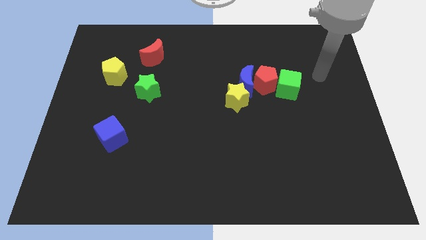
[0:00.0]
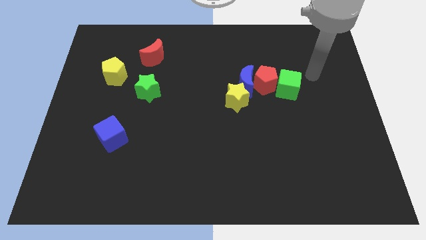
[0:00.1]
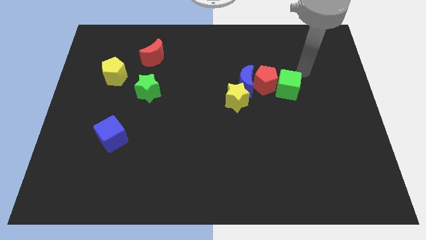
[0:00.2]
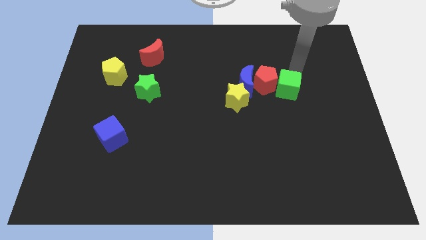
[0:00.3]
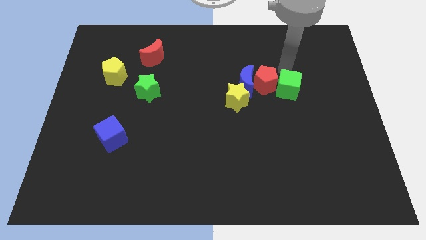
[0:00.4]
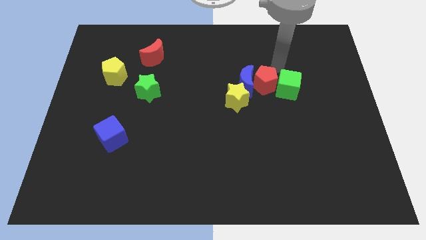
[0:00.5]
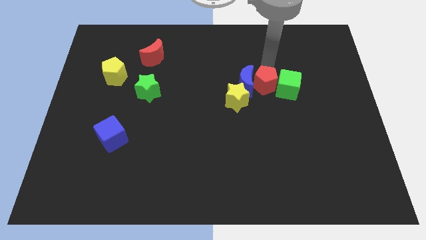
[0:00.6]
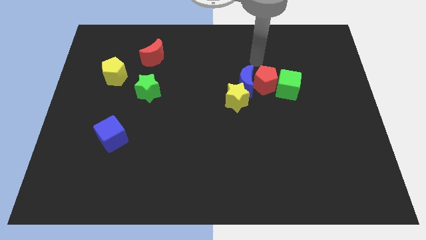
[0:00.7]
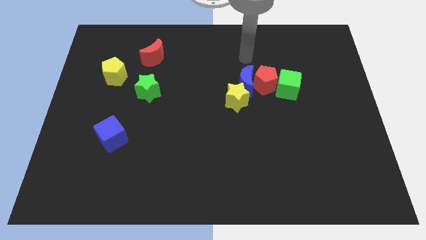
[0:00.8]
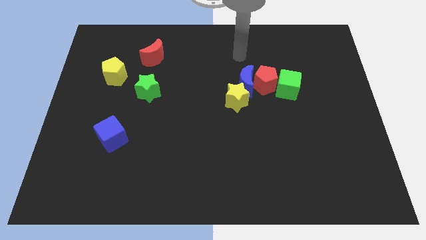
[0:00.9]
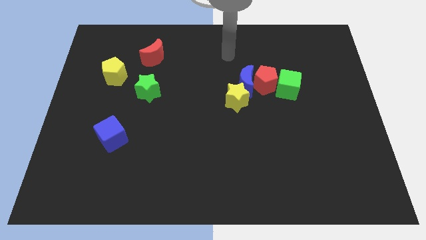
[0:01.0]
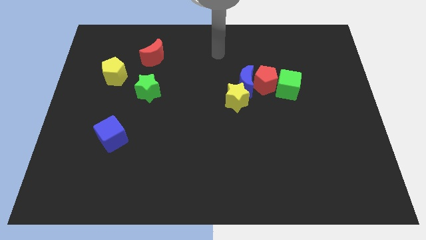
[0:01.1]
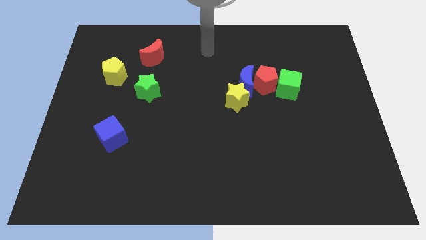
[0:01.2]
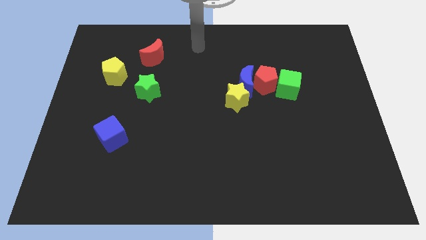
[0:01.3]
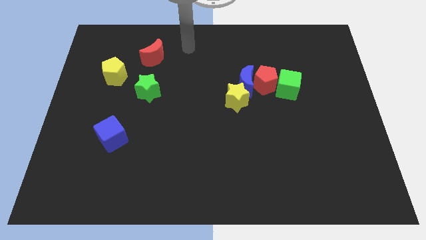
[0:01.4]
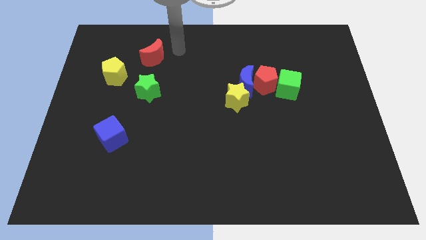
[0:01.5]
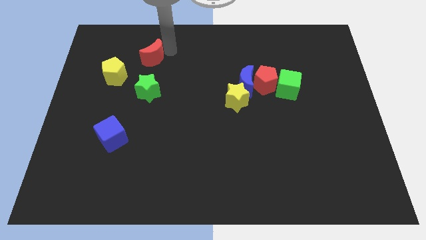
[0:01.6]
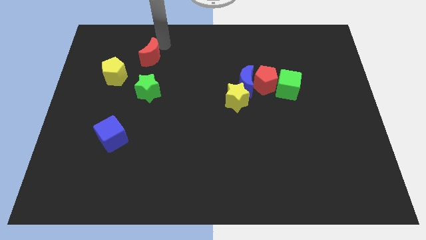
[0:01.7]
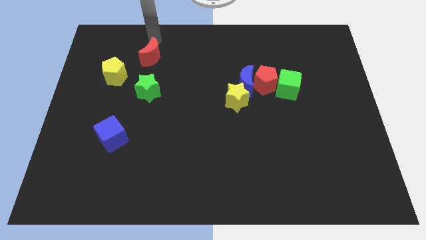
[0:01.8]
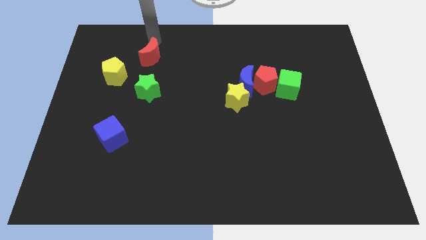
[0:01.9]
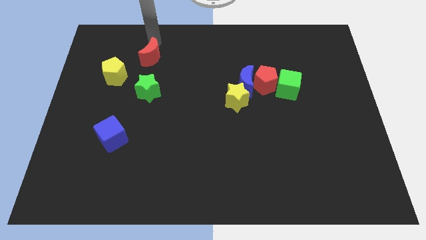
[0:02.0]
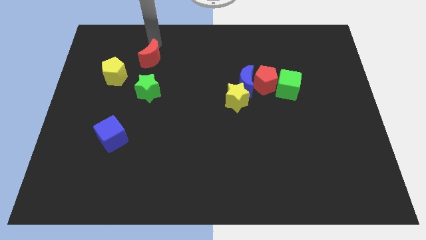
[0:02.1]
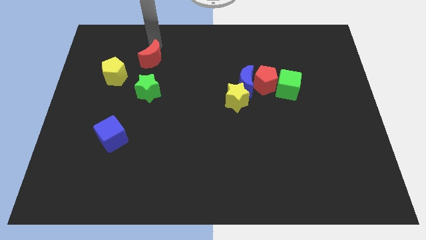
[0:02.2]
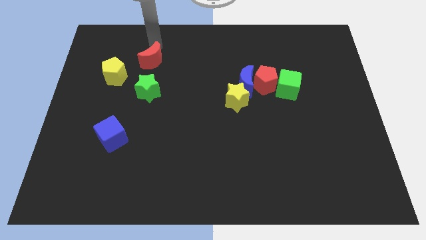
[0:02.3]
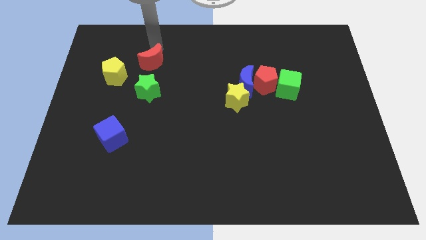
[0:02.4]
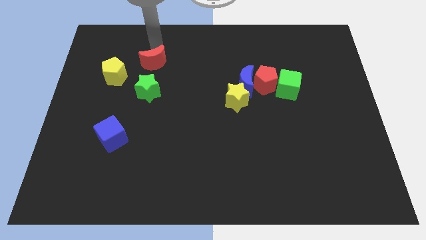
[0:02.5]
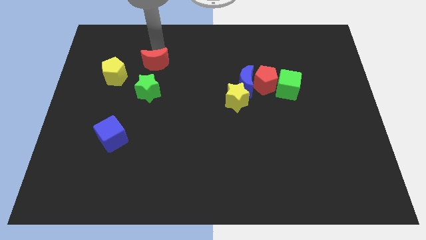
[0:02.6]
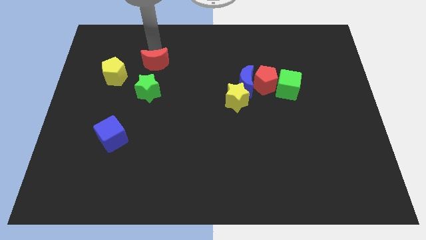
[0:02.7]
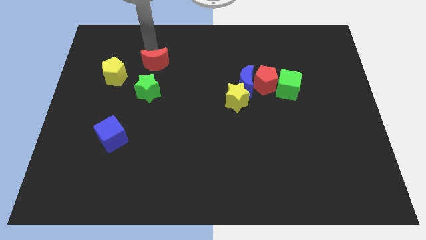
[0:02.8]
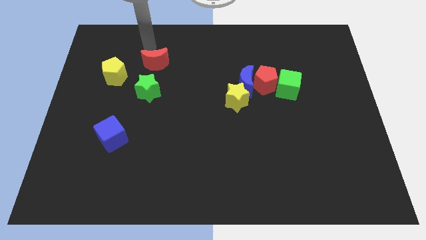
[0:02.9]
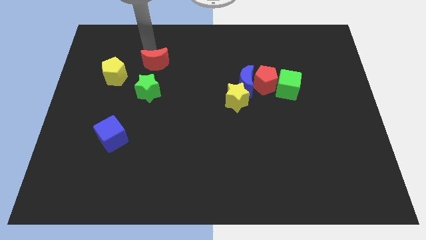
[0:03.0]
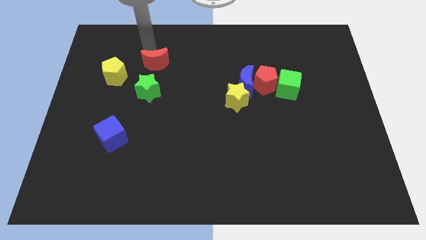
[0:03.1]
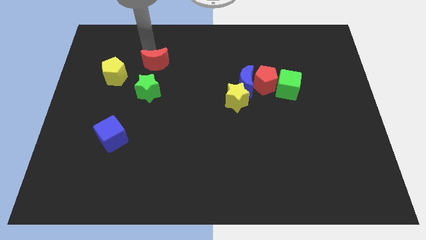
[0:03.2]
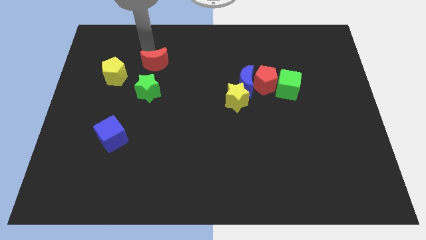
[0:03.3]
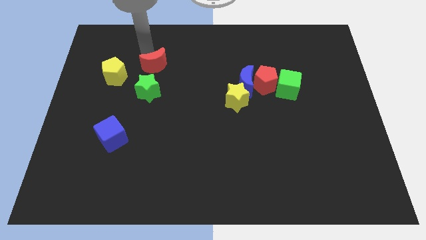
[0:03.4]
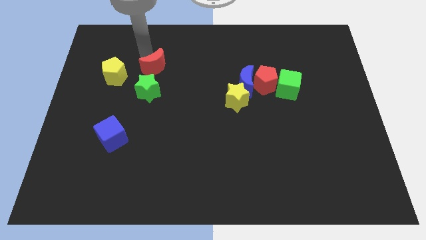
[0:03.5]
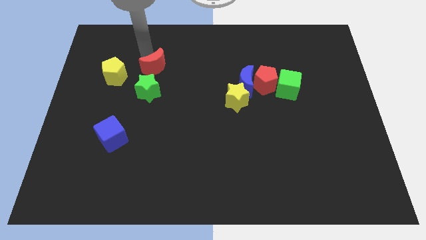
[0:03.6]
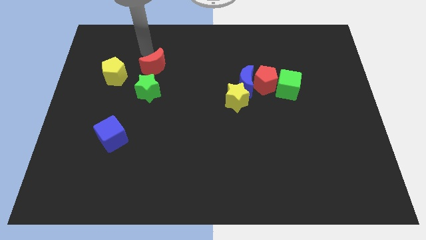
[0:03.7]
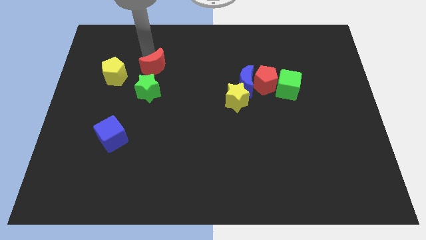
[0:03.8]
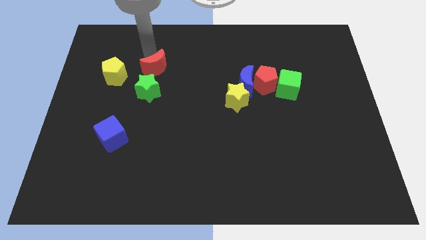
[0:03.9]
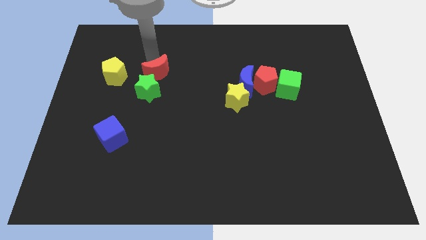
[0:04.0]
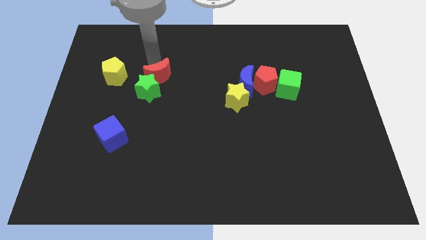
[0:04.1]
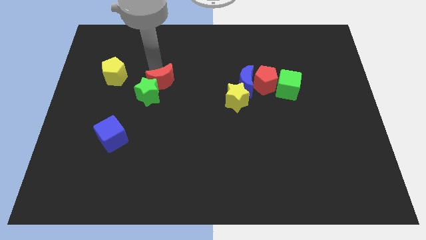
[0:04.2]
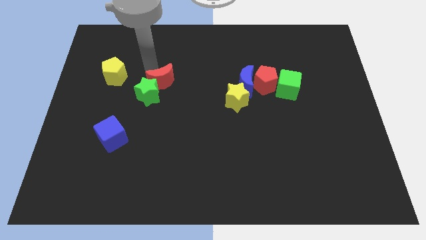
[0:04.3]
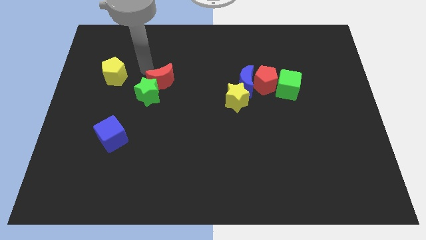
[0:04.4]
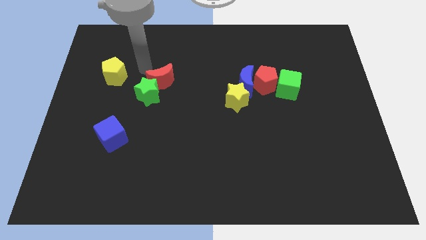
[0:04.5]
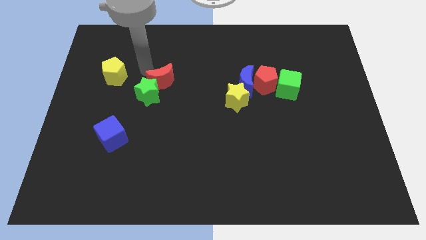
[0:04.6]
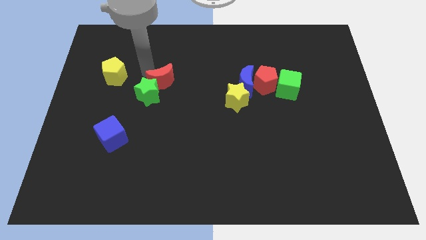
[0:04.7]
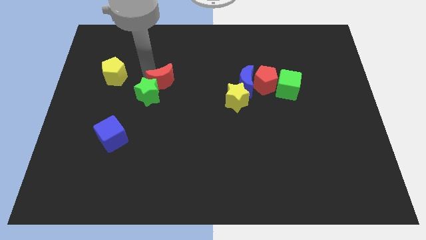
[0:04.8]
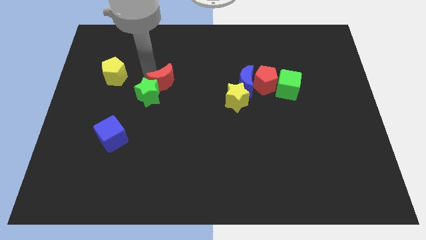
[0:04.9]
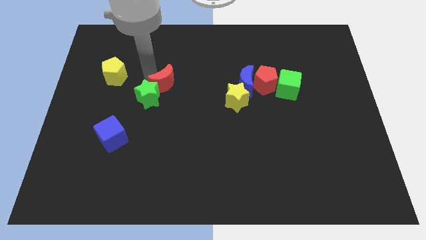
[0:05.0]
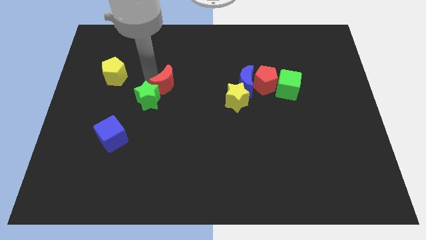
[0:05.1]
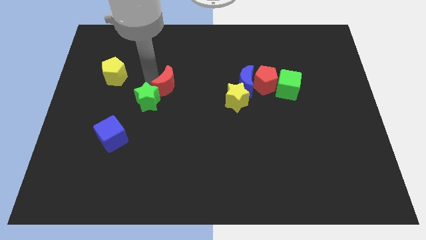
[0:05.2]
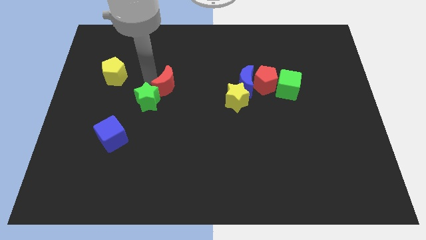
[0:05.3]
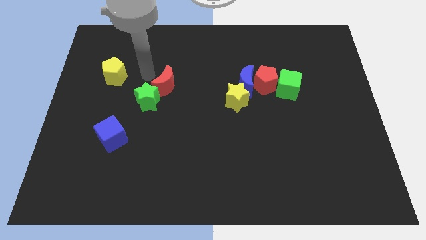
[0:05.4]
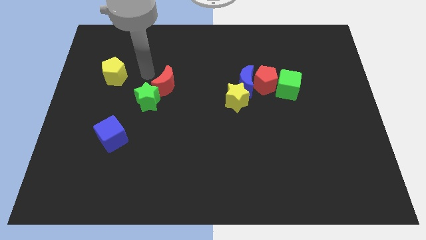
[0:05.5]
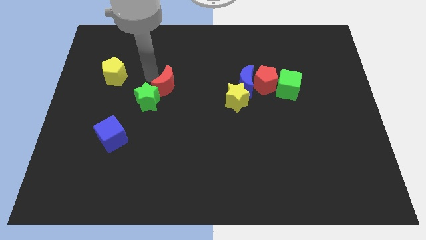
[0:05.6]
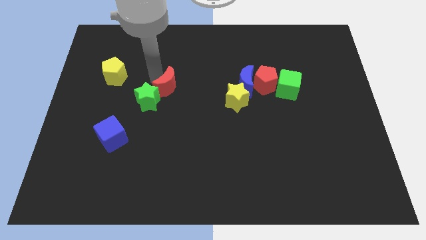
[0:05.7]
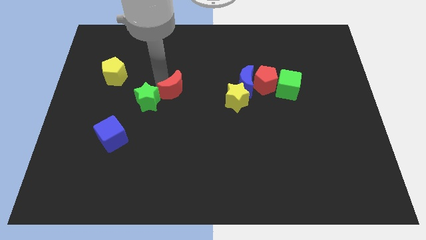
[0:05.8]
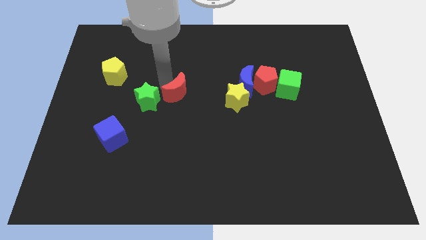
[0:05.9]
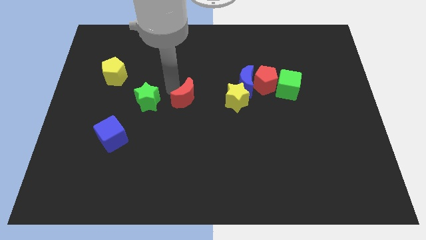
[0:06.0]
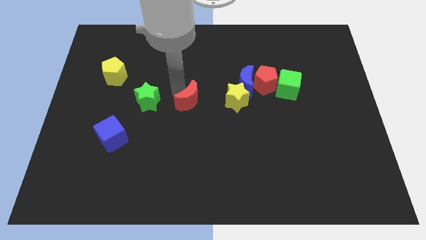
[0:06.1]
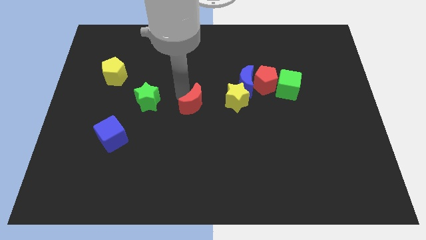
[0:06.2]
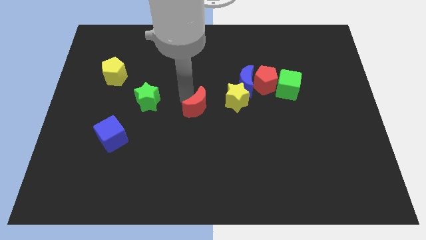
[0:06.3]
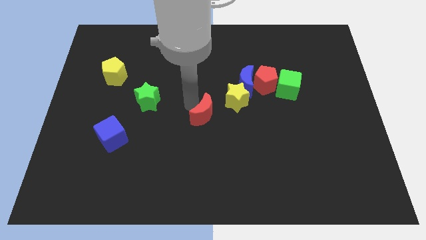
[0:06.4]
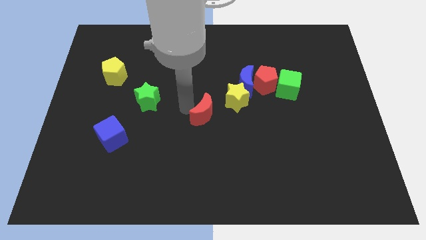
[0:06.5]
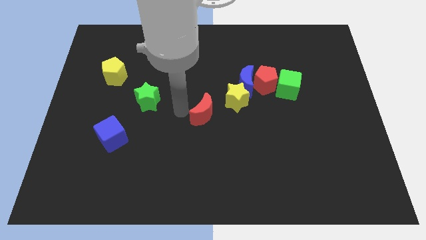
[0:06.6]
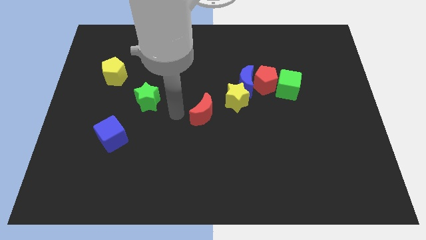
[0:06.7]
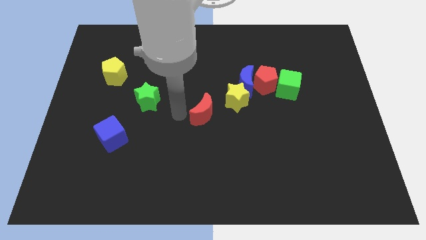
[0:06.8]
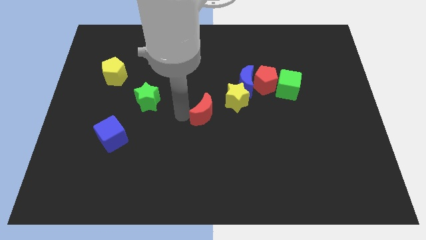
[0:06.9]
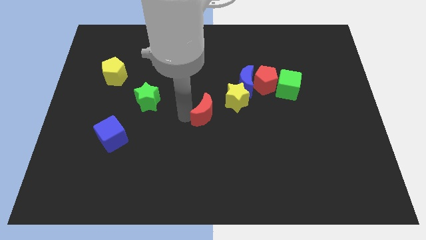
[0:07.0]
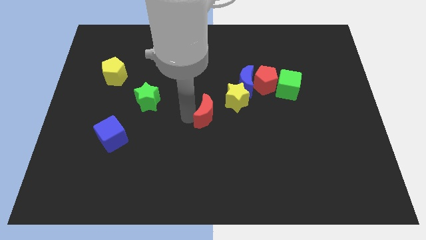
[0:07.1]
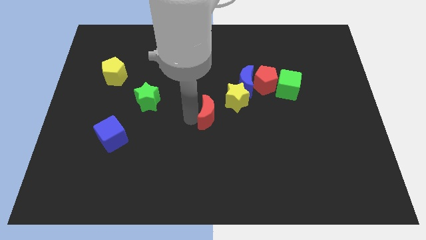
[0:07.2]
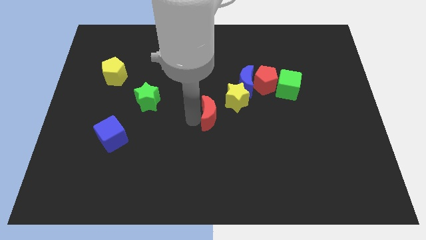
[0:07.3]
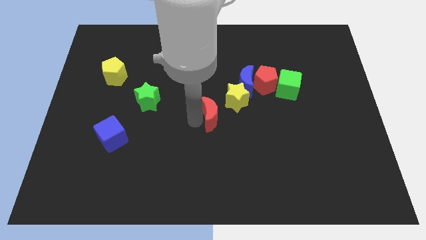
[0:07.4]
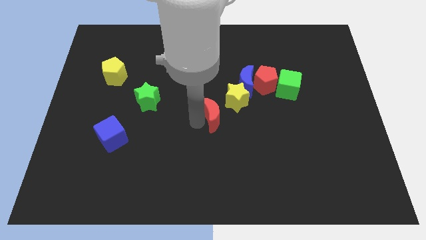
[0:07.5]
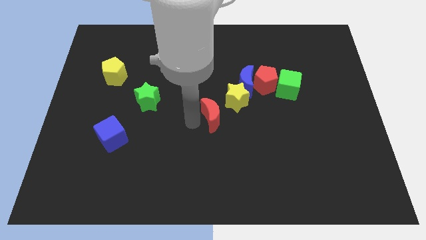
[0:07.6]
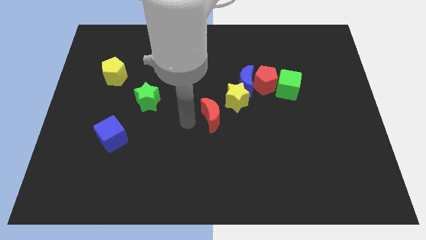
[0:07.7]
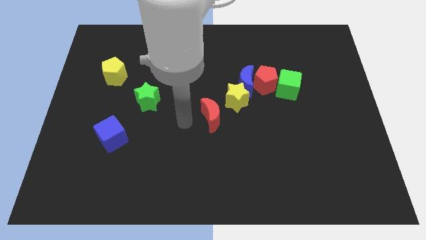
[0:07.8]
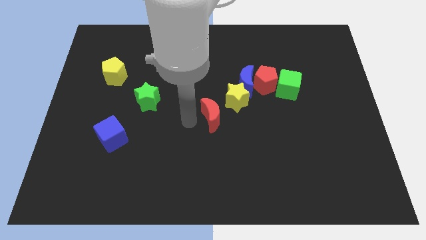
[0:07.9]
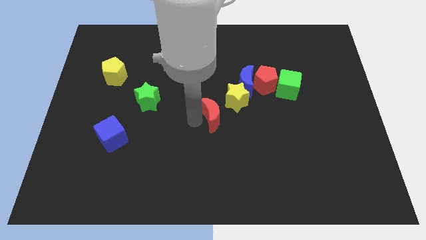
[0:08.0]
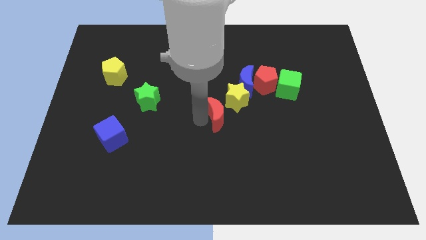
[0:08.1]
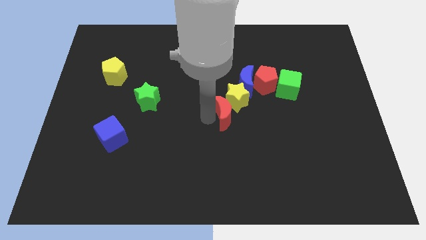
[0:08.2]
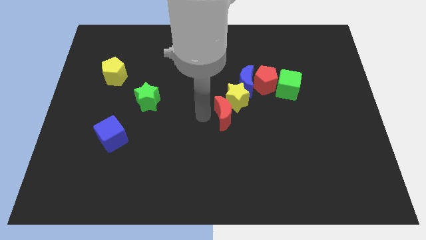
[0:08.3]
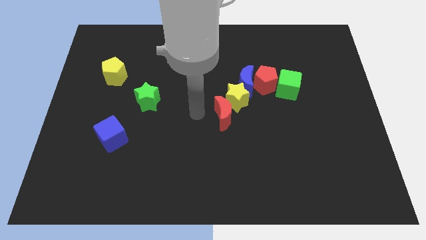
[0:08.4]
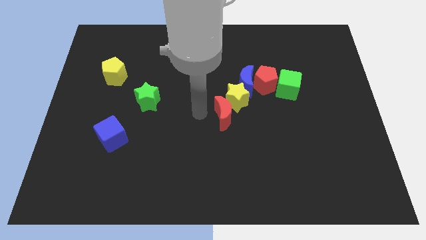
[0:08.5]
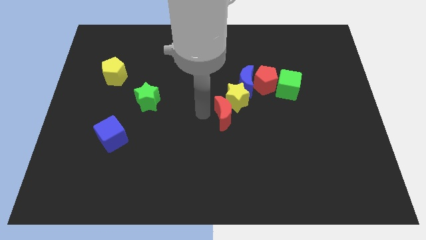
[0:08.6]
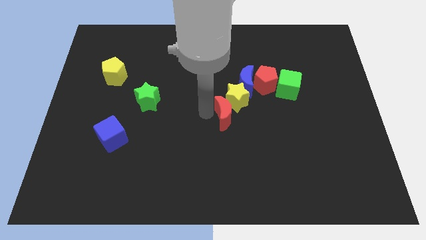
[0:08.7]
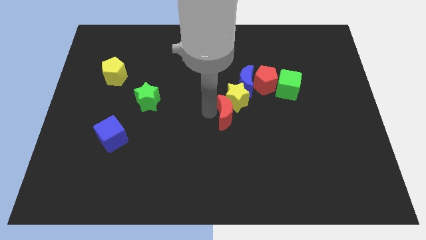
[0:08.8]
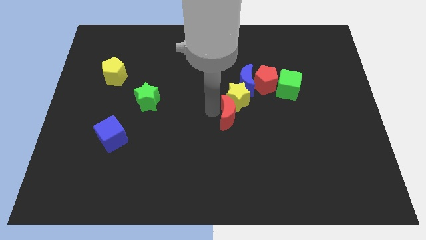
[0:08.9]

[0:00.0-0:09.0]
slide the red moon to the bottom of the blue moon
